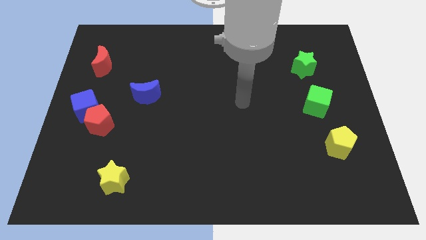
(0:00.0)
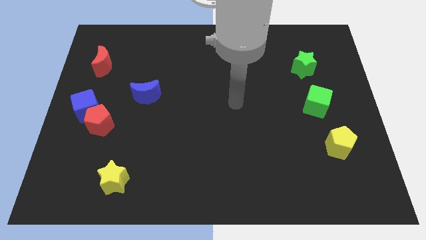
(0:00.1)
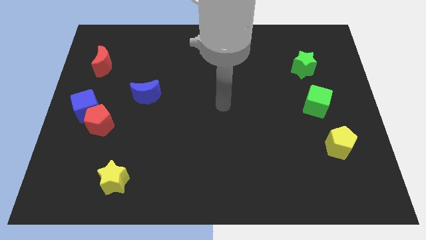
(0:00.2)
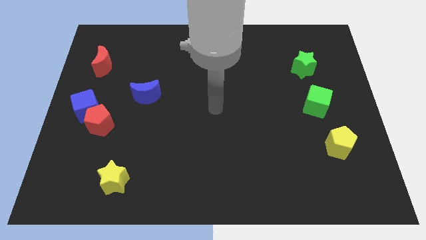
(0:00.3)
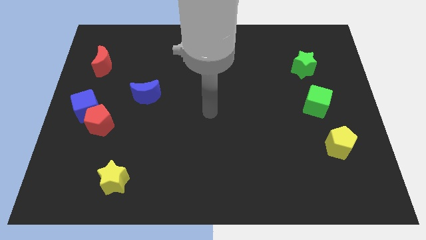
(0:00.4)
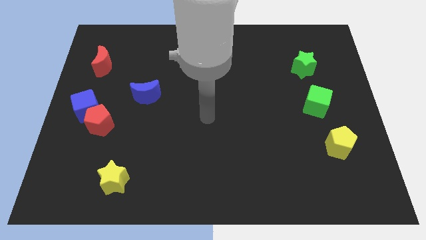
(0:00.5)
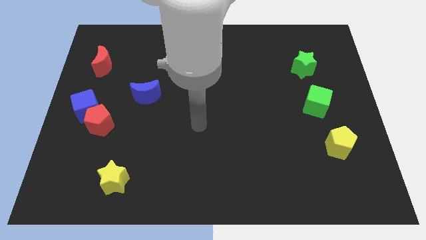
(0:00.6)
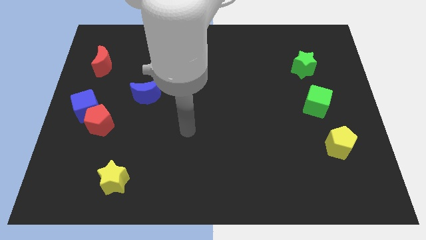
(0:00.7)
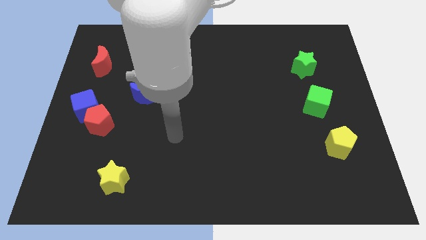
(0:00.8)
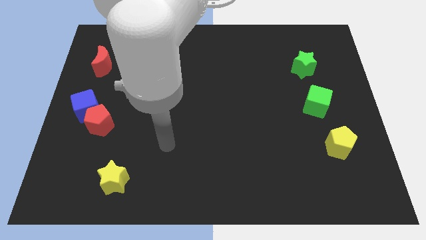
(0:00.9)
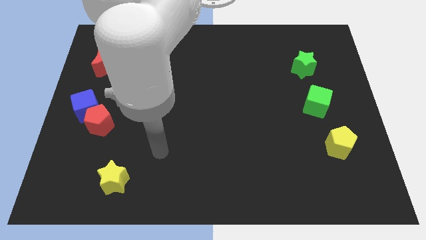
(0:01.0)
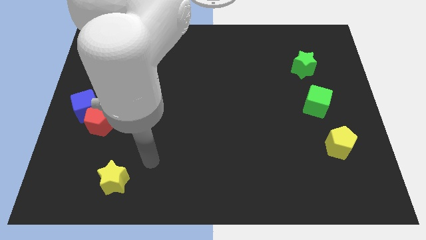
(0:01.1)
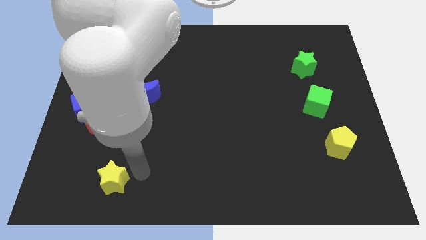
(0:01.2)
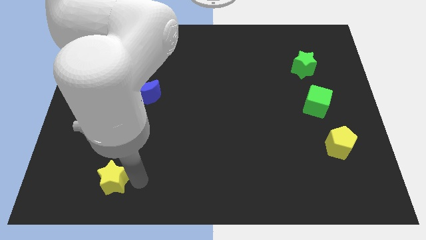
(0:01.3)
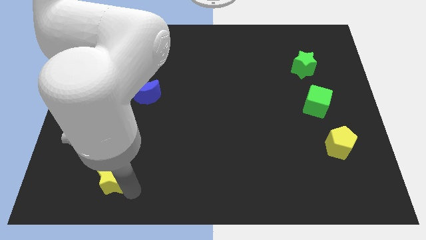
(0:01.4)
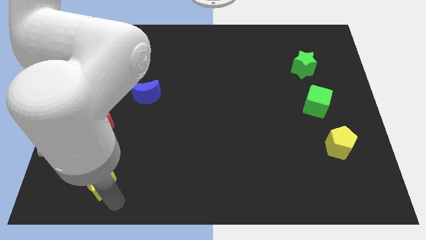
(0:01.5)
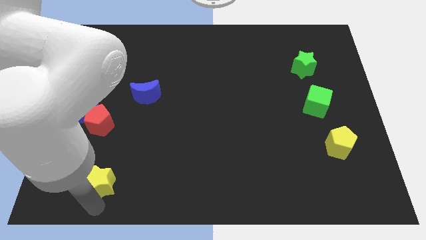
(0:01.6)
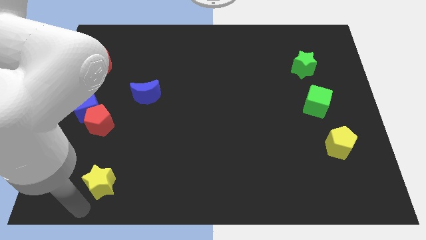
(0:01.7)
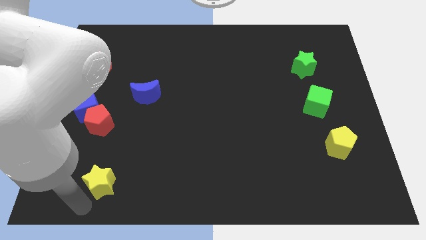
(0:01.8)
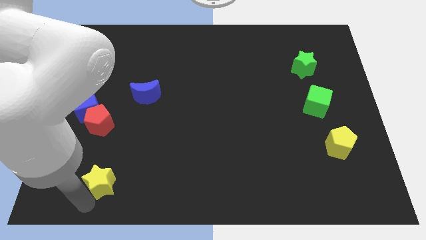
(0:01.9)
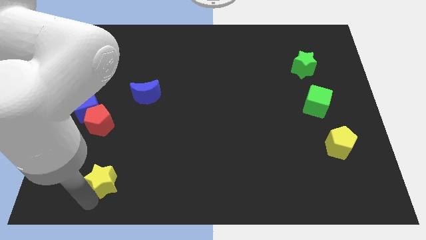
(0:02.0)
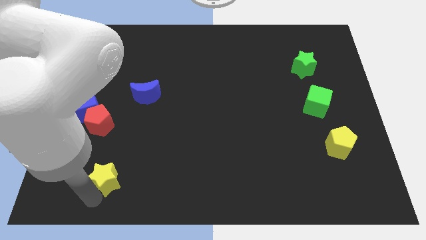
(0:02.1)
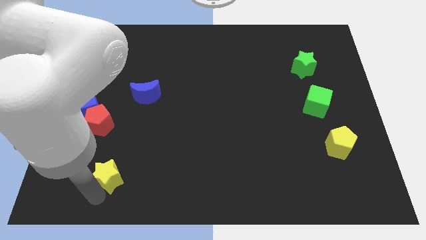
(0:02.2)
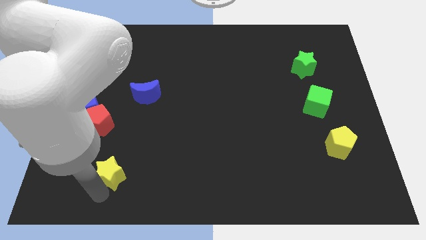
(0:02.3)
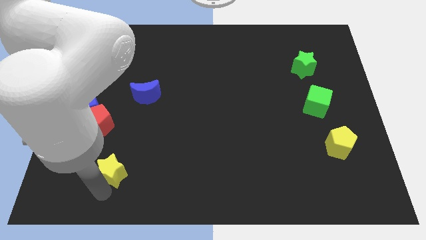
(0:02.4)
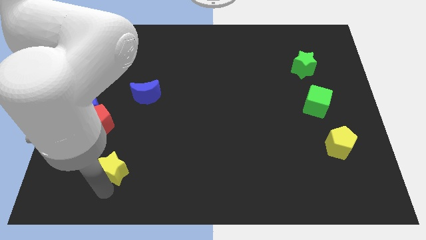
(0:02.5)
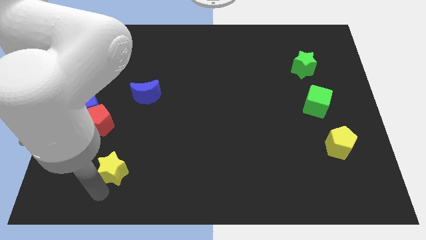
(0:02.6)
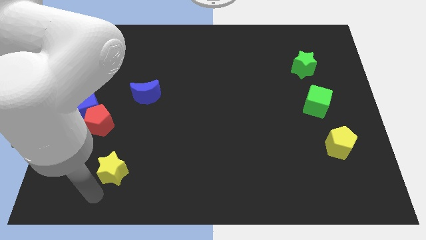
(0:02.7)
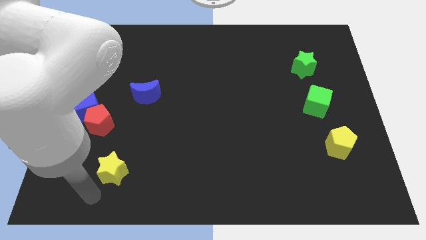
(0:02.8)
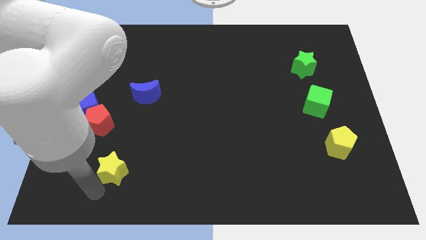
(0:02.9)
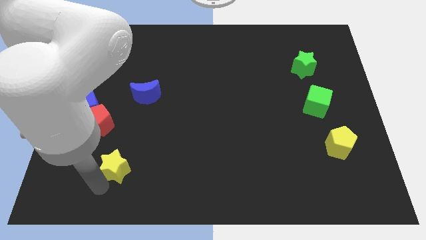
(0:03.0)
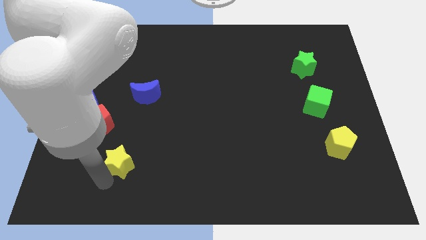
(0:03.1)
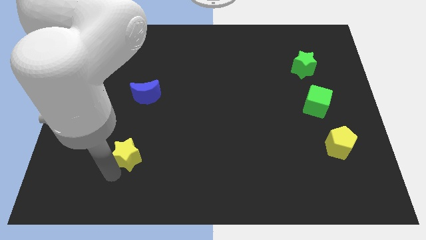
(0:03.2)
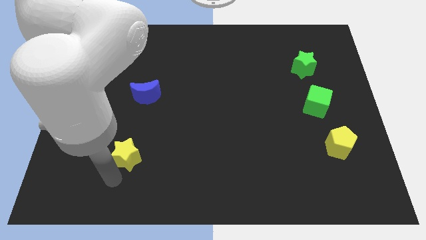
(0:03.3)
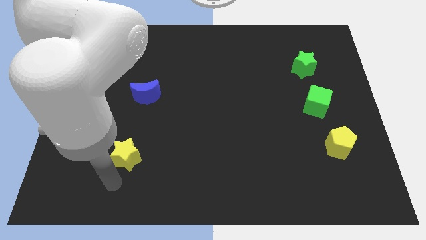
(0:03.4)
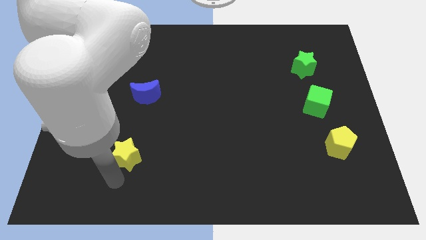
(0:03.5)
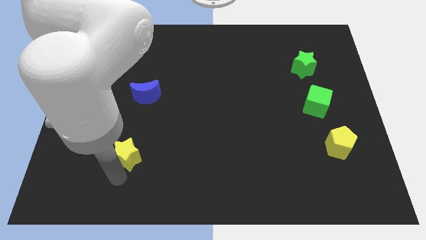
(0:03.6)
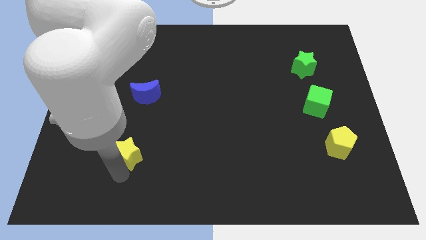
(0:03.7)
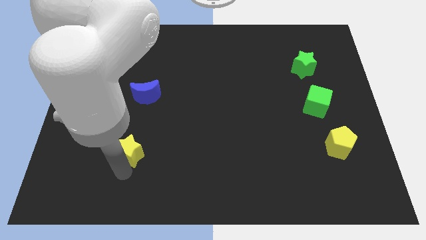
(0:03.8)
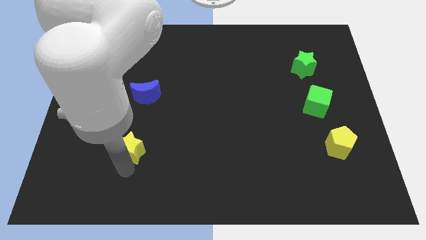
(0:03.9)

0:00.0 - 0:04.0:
slightly push the yellow star up

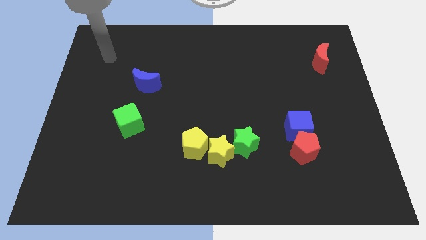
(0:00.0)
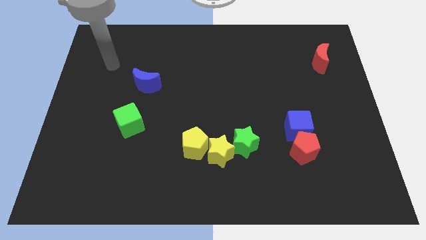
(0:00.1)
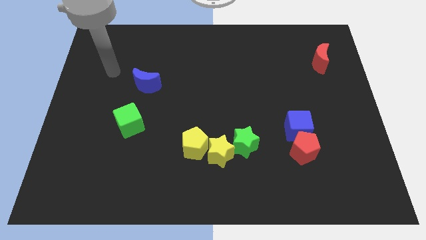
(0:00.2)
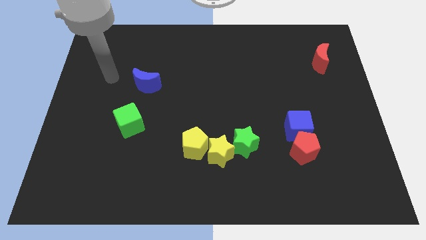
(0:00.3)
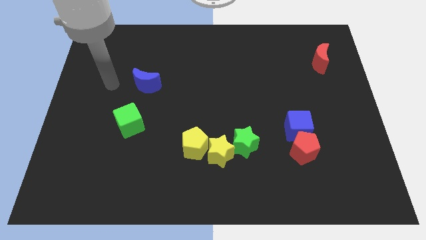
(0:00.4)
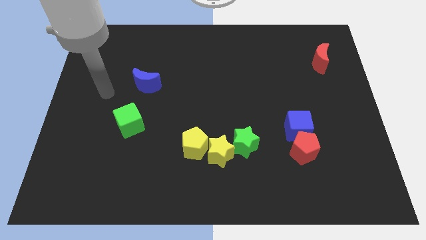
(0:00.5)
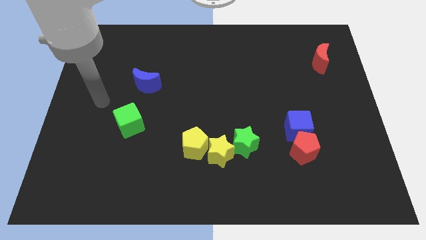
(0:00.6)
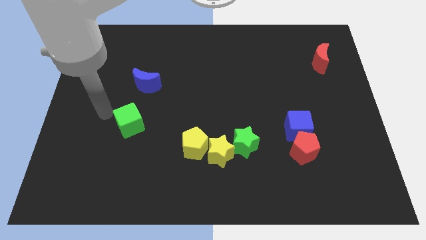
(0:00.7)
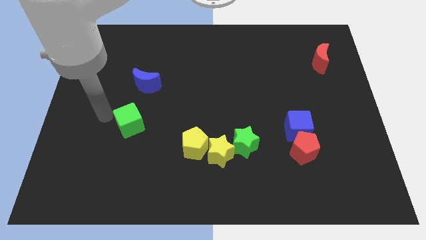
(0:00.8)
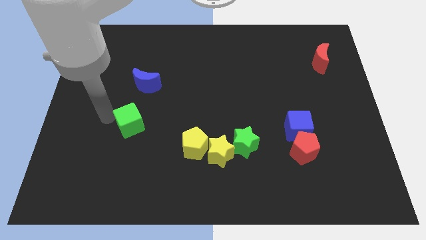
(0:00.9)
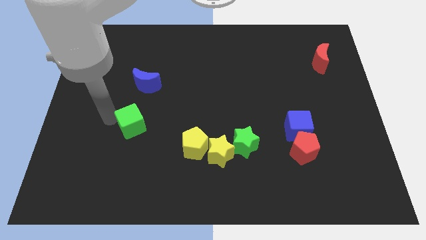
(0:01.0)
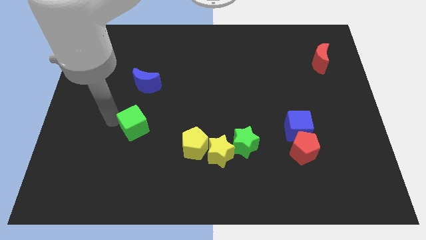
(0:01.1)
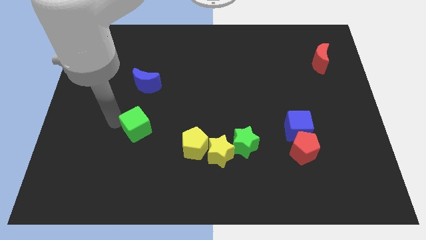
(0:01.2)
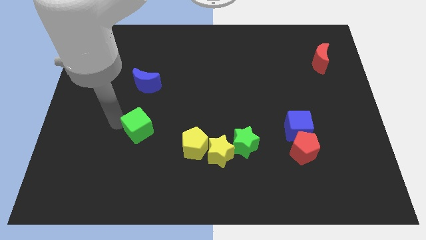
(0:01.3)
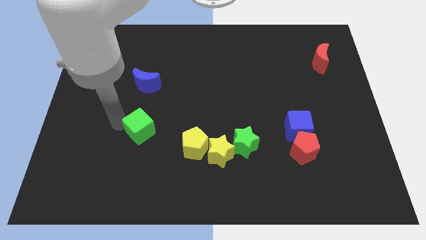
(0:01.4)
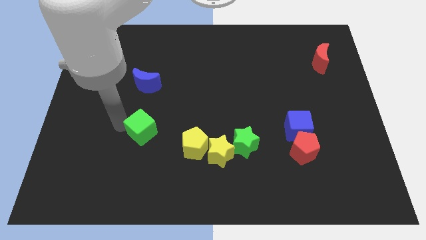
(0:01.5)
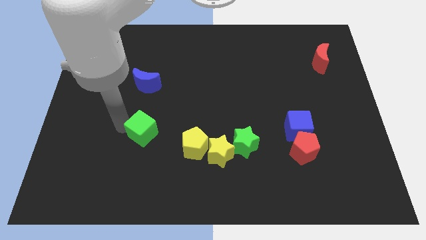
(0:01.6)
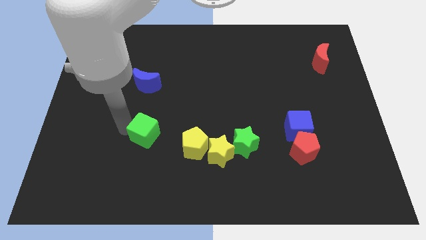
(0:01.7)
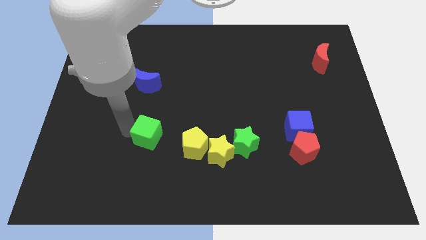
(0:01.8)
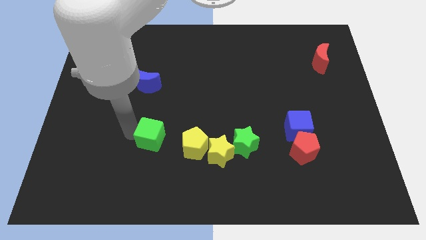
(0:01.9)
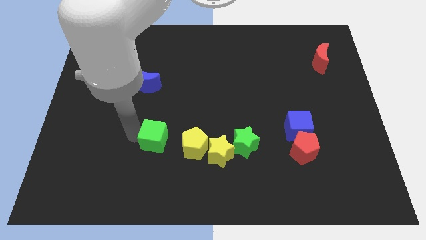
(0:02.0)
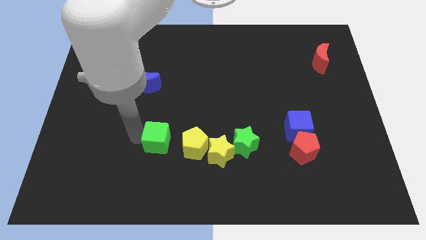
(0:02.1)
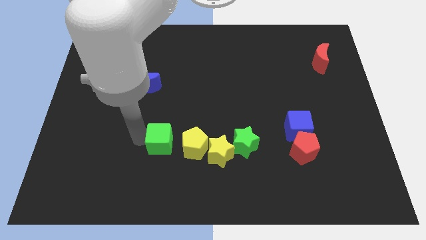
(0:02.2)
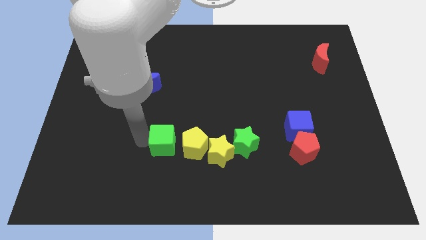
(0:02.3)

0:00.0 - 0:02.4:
move the green cube a little to the right

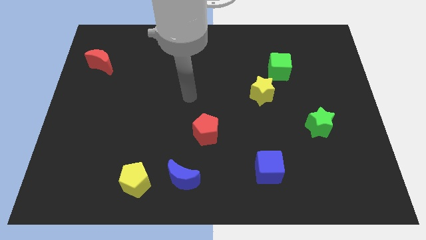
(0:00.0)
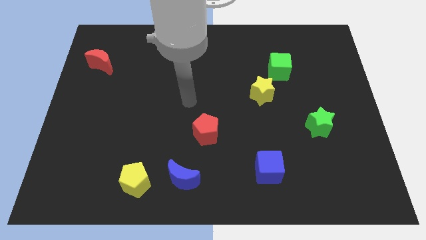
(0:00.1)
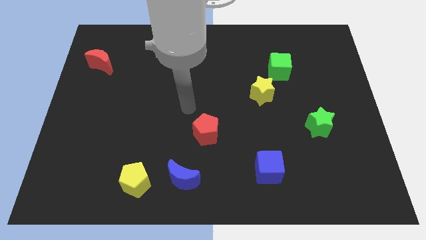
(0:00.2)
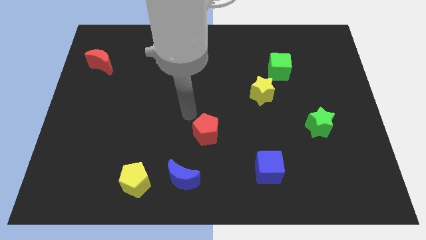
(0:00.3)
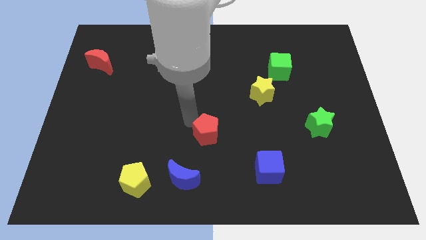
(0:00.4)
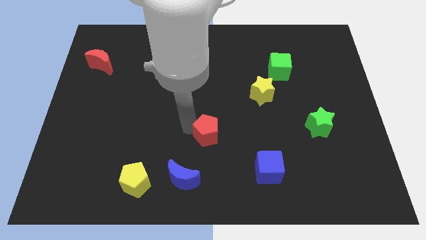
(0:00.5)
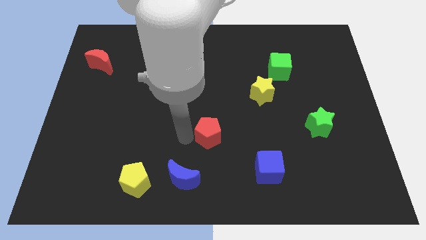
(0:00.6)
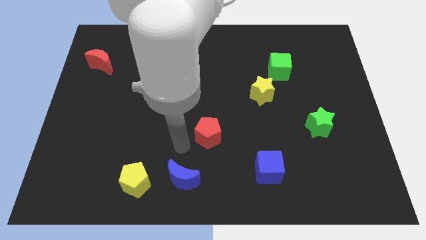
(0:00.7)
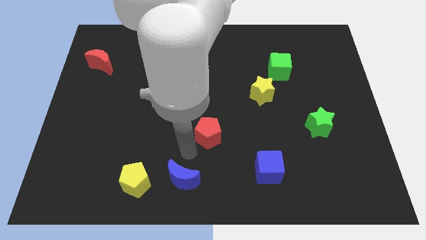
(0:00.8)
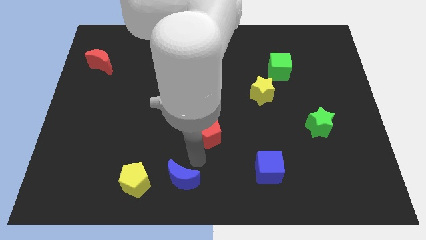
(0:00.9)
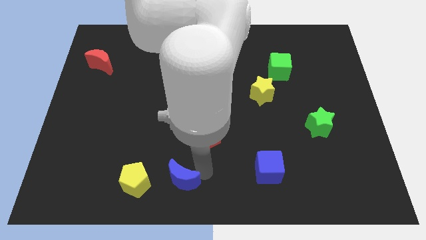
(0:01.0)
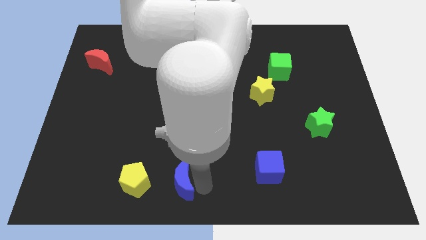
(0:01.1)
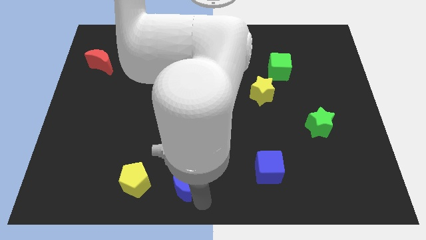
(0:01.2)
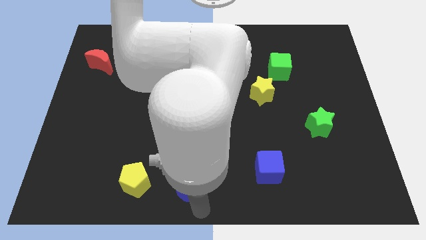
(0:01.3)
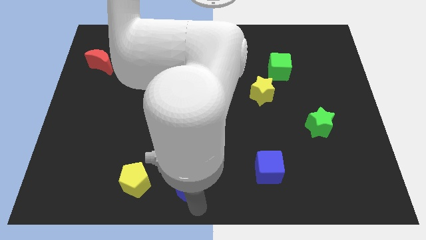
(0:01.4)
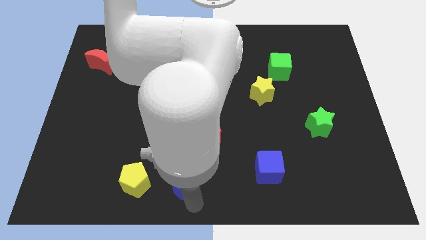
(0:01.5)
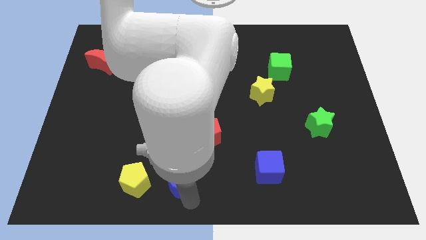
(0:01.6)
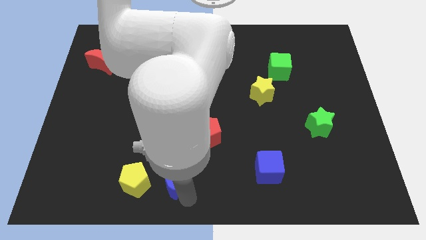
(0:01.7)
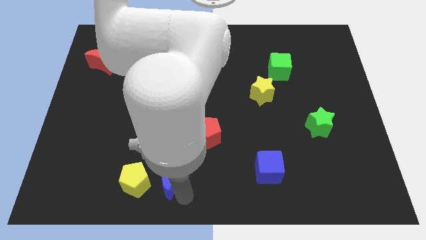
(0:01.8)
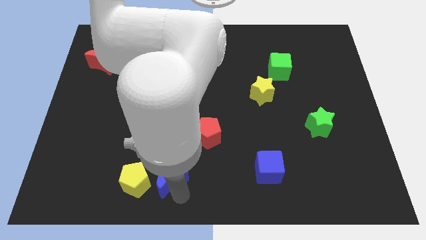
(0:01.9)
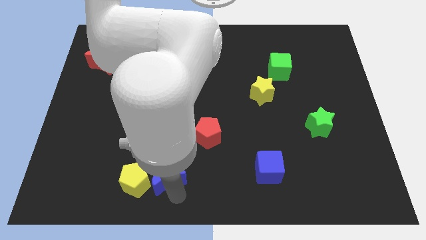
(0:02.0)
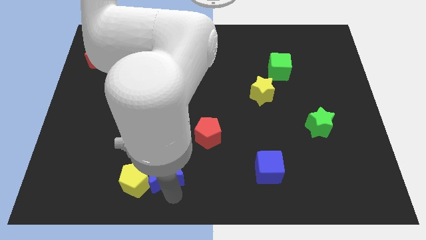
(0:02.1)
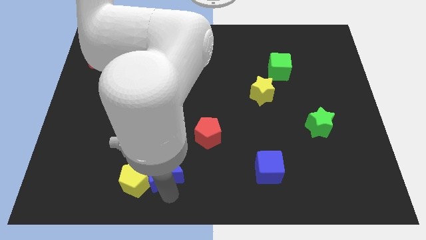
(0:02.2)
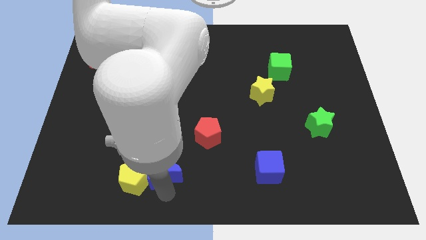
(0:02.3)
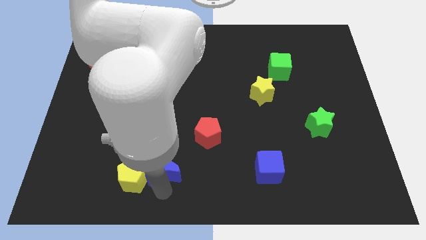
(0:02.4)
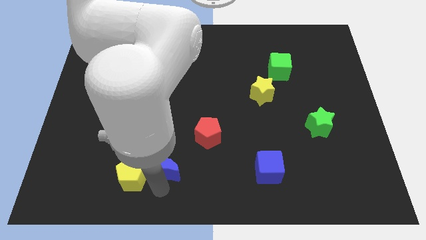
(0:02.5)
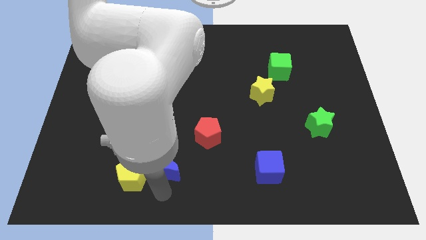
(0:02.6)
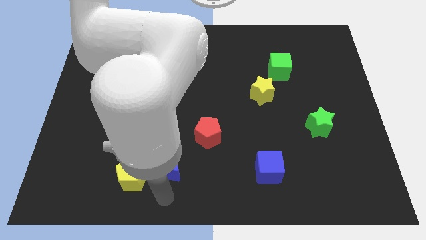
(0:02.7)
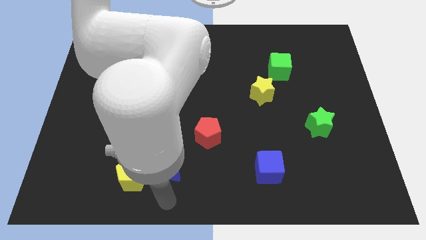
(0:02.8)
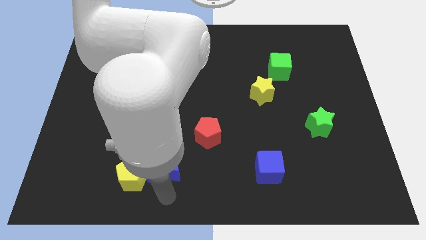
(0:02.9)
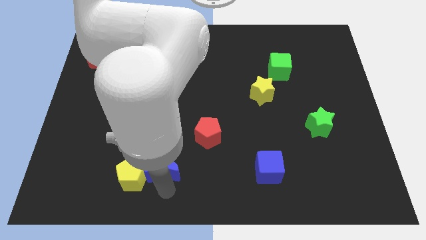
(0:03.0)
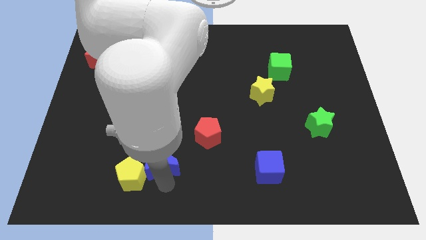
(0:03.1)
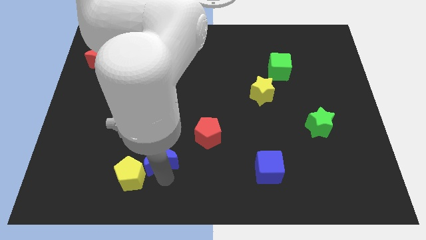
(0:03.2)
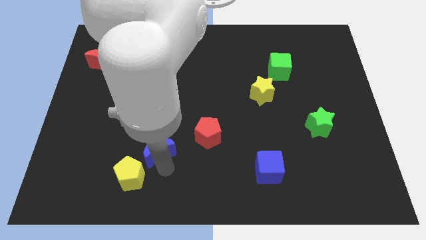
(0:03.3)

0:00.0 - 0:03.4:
slightly slide the blue moon up and to the left
